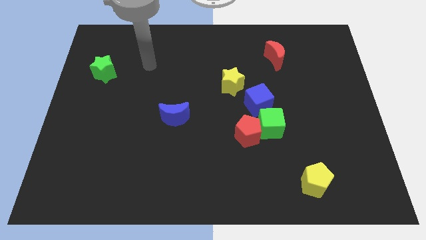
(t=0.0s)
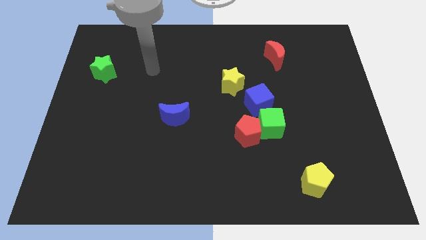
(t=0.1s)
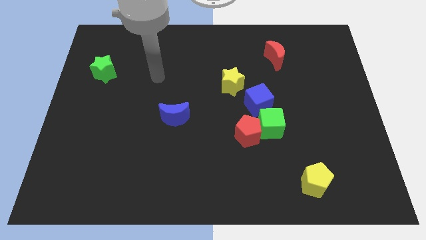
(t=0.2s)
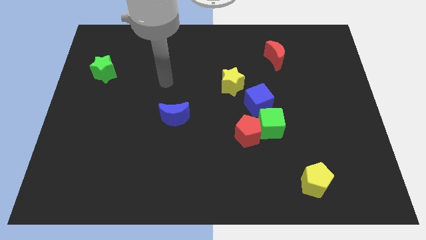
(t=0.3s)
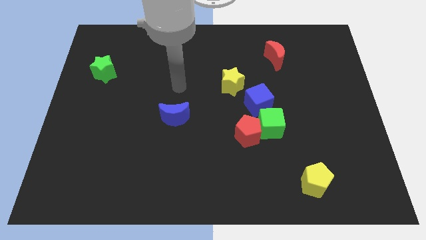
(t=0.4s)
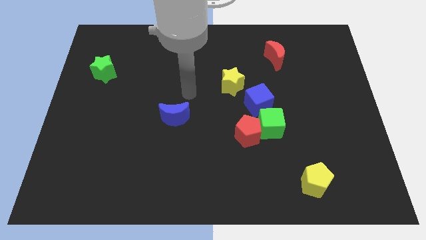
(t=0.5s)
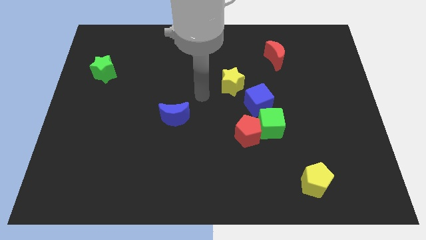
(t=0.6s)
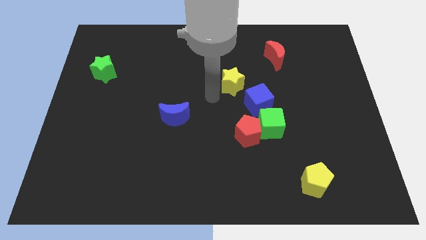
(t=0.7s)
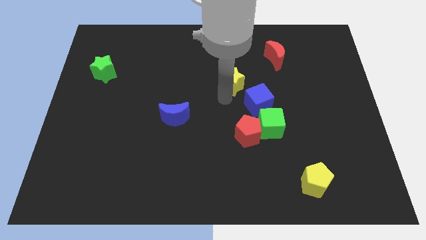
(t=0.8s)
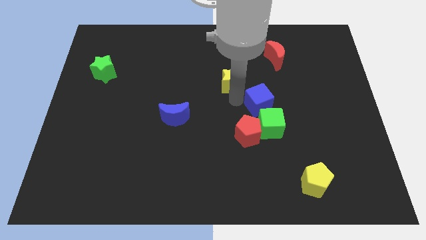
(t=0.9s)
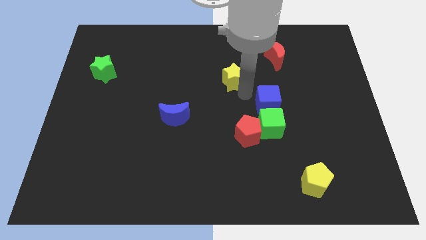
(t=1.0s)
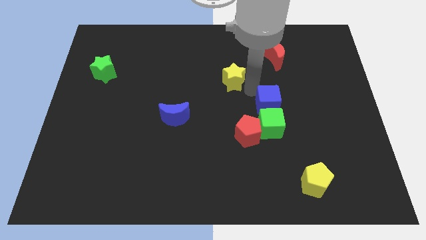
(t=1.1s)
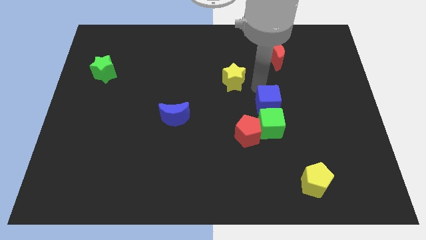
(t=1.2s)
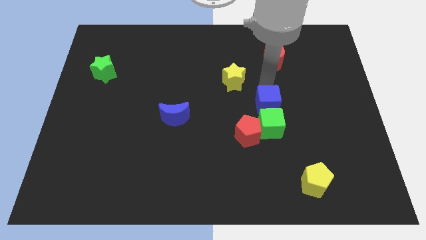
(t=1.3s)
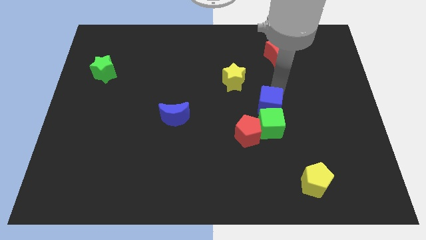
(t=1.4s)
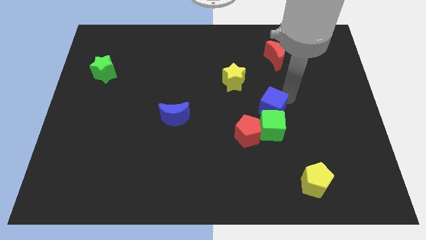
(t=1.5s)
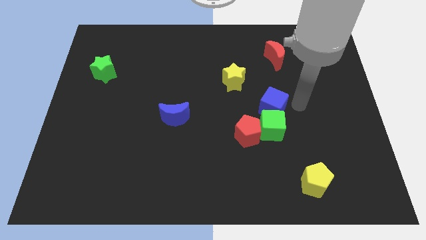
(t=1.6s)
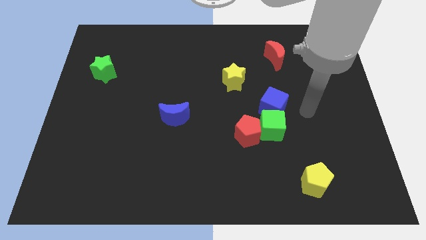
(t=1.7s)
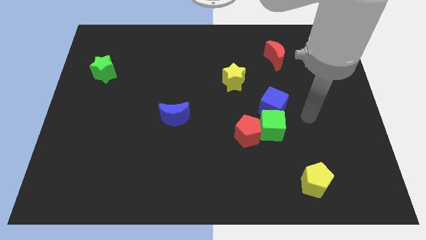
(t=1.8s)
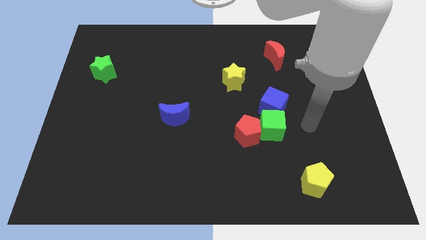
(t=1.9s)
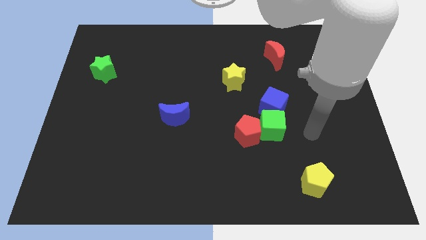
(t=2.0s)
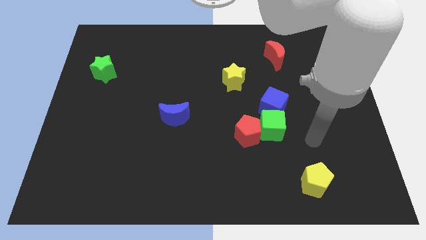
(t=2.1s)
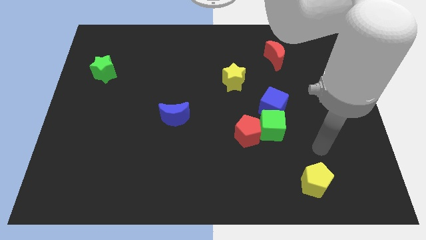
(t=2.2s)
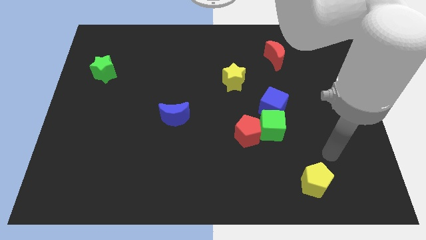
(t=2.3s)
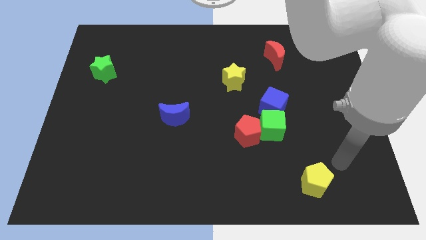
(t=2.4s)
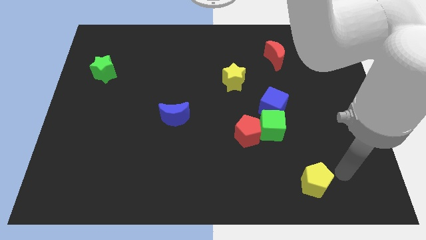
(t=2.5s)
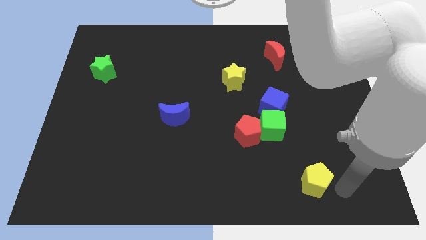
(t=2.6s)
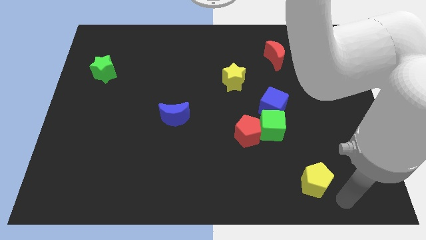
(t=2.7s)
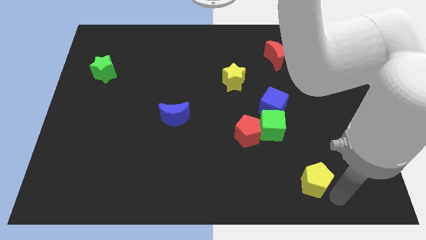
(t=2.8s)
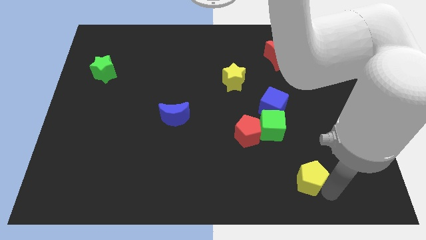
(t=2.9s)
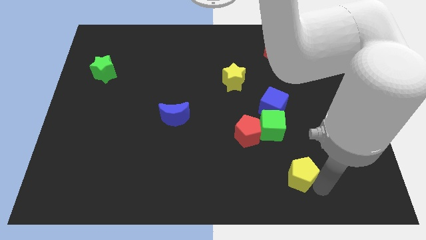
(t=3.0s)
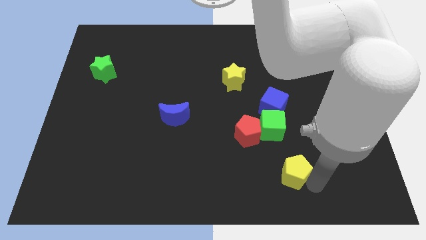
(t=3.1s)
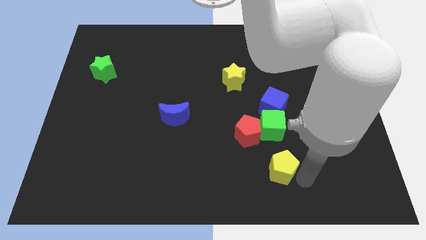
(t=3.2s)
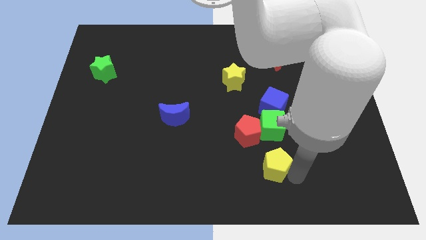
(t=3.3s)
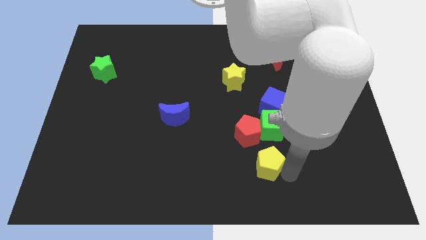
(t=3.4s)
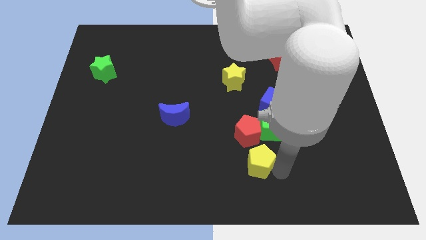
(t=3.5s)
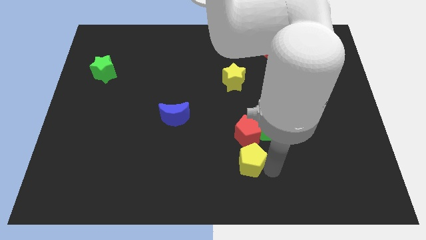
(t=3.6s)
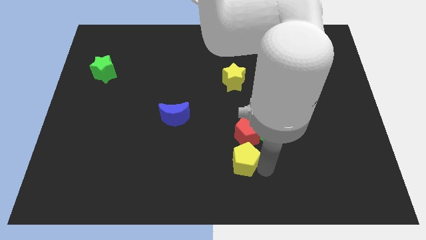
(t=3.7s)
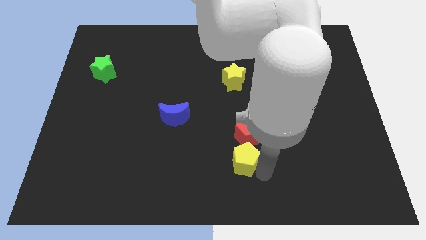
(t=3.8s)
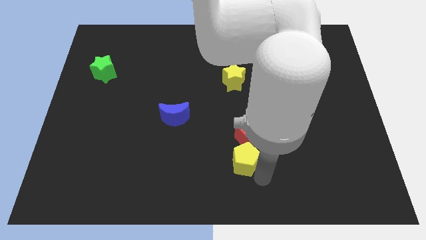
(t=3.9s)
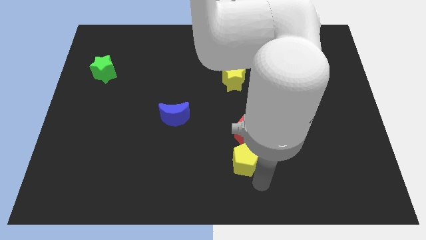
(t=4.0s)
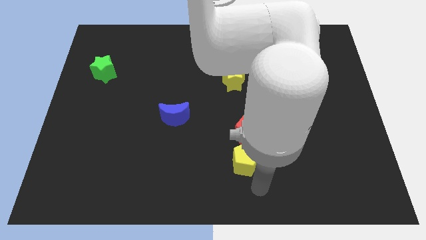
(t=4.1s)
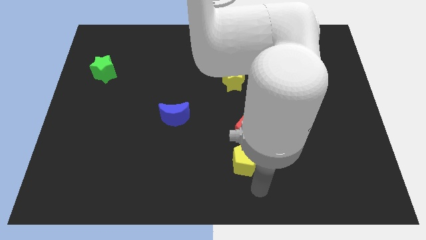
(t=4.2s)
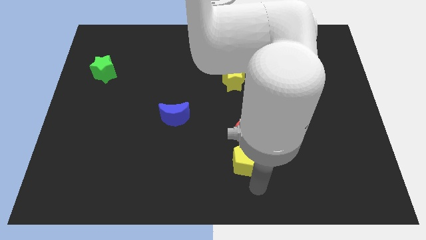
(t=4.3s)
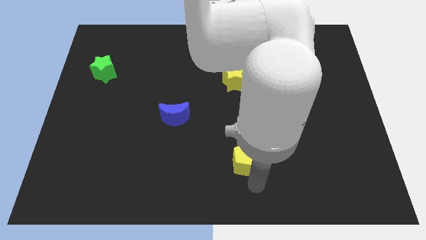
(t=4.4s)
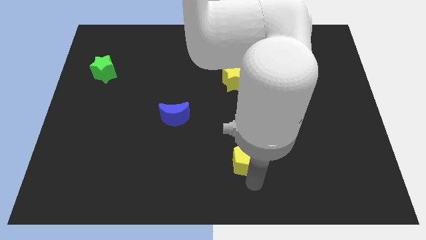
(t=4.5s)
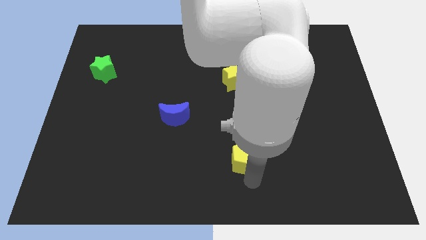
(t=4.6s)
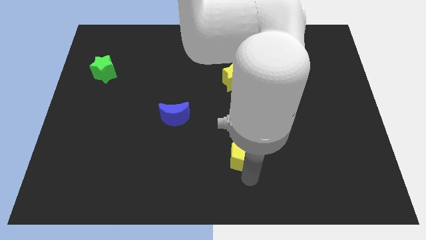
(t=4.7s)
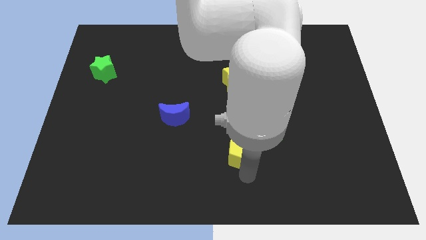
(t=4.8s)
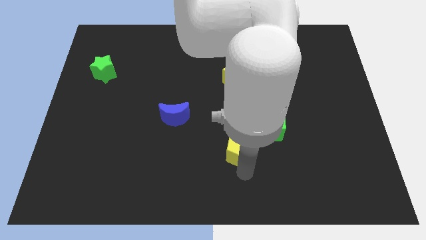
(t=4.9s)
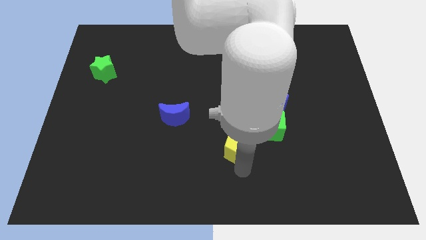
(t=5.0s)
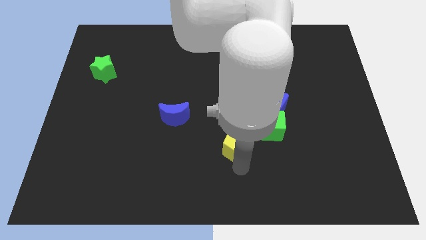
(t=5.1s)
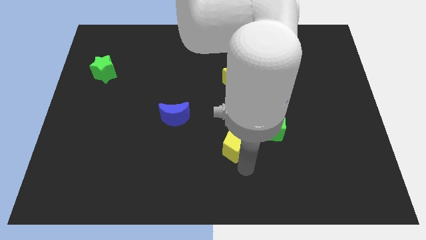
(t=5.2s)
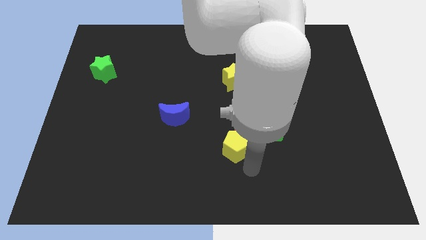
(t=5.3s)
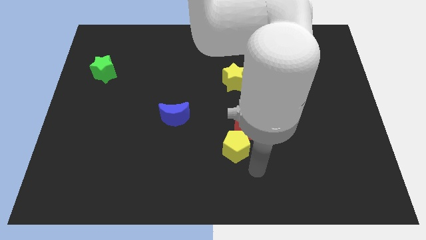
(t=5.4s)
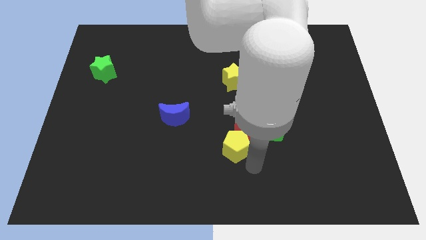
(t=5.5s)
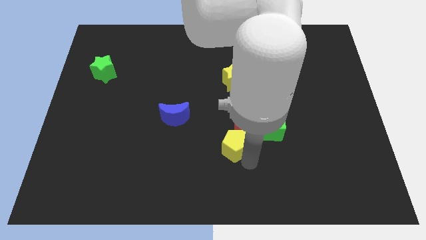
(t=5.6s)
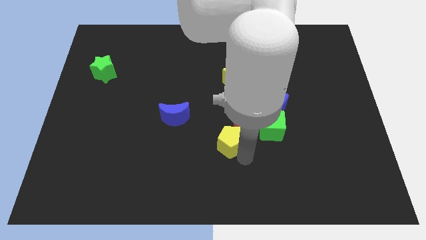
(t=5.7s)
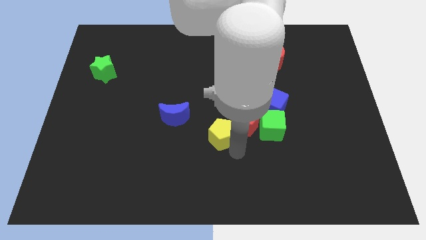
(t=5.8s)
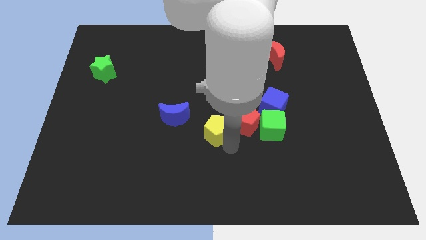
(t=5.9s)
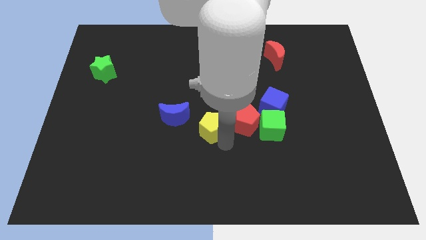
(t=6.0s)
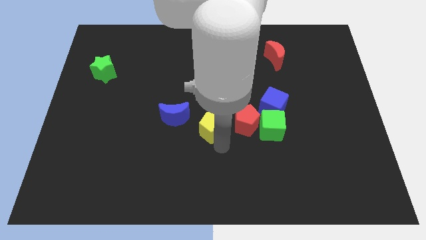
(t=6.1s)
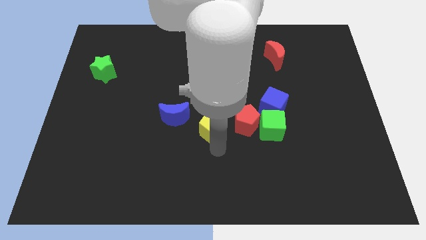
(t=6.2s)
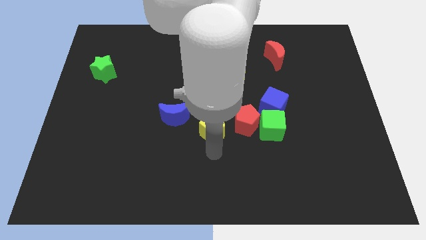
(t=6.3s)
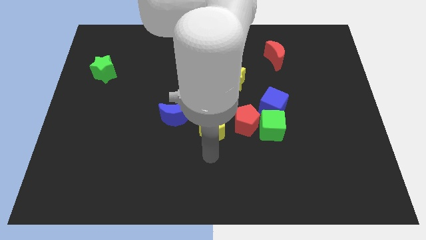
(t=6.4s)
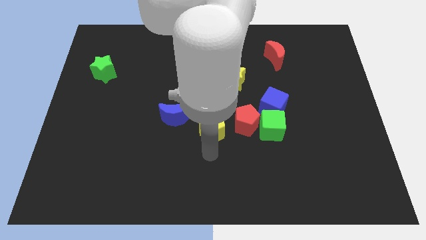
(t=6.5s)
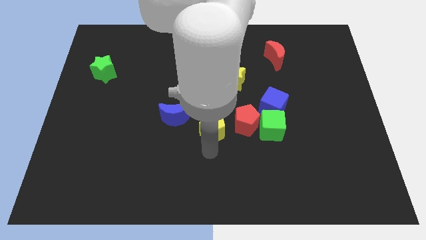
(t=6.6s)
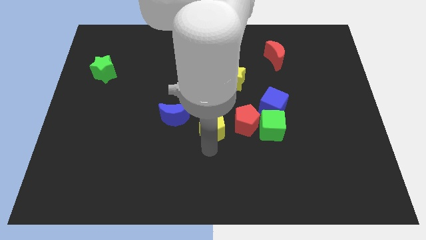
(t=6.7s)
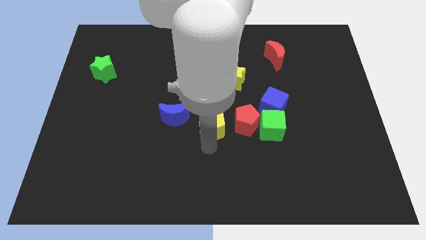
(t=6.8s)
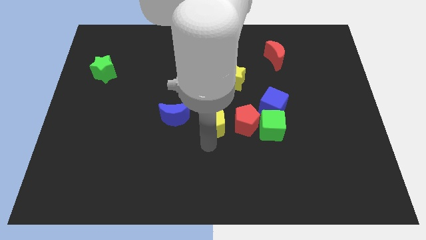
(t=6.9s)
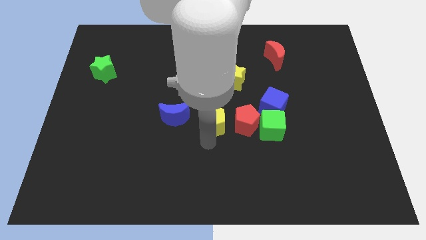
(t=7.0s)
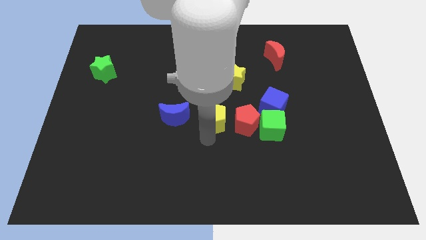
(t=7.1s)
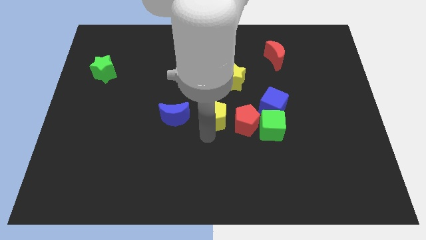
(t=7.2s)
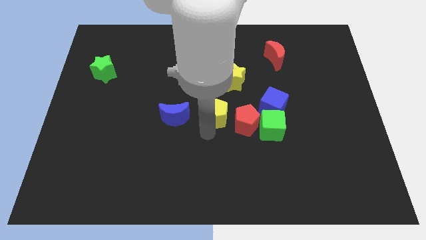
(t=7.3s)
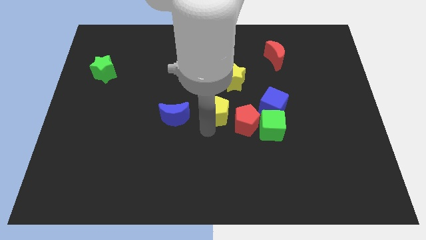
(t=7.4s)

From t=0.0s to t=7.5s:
put the yellow pentagon diagonally down and to the left of the yellow star
